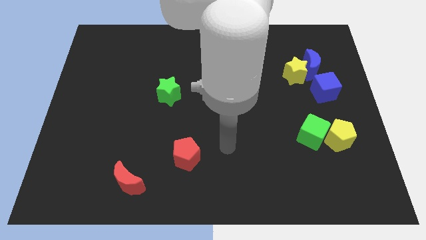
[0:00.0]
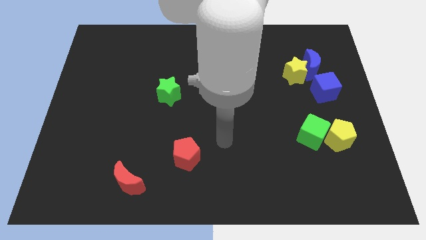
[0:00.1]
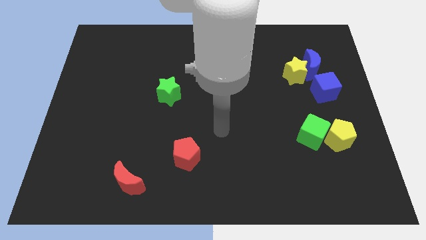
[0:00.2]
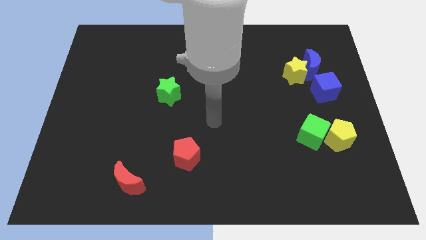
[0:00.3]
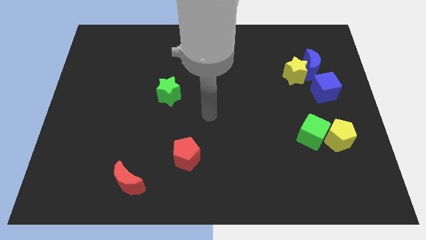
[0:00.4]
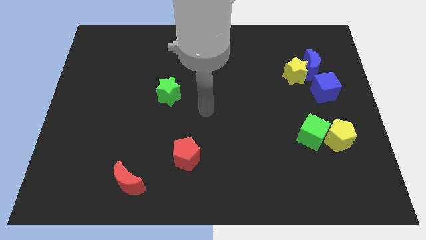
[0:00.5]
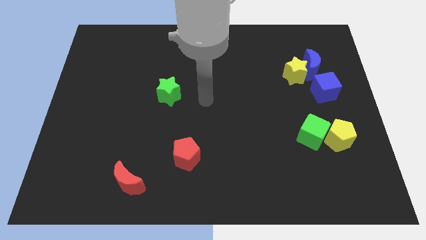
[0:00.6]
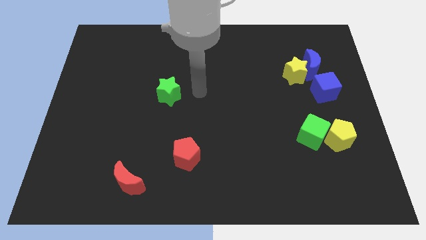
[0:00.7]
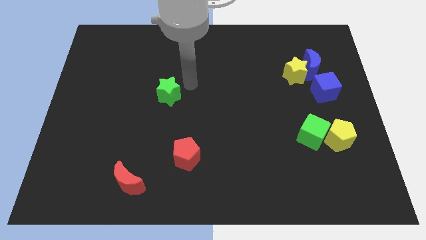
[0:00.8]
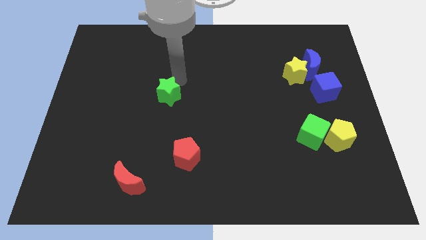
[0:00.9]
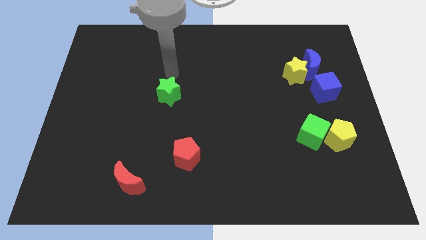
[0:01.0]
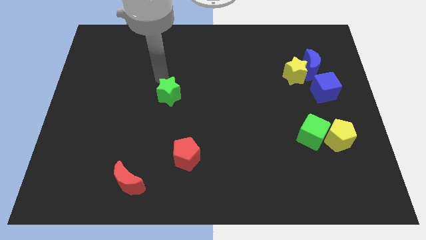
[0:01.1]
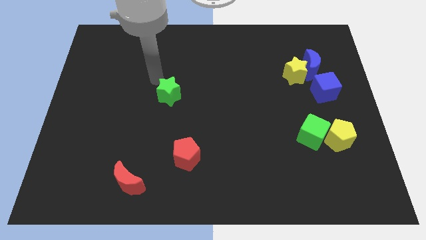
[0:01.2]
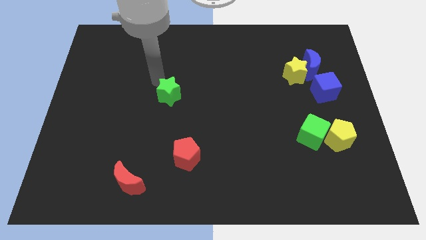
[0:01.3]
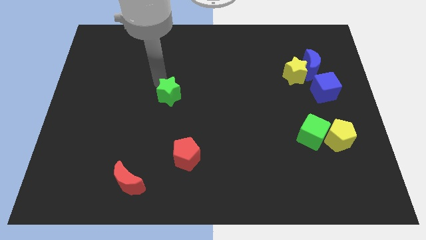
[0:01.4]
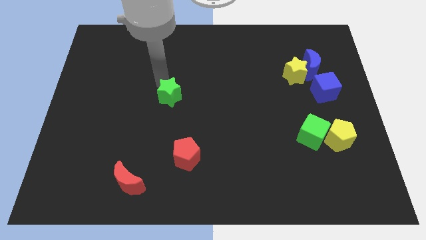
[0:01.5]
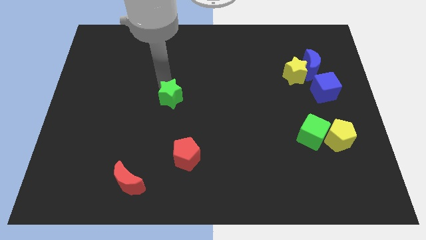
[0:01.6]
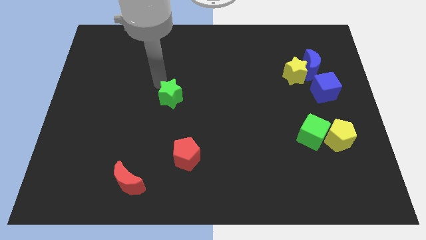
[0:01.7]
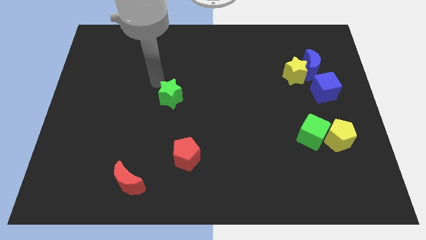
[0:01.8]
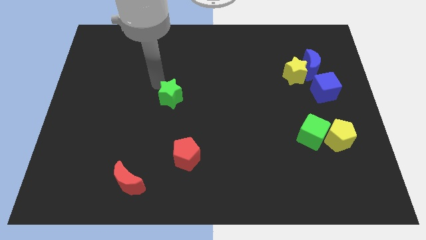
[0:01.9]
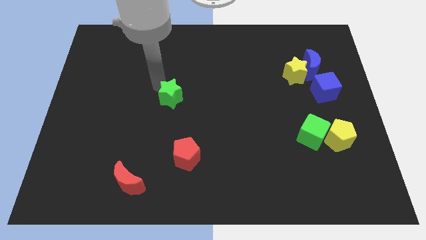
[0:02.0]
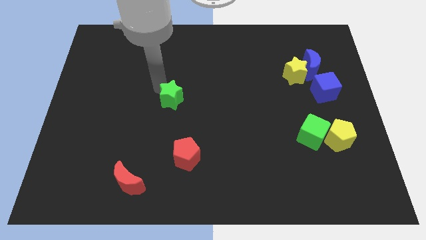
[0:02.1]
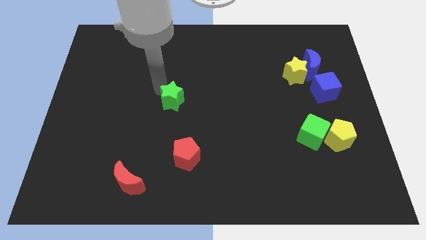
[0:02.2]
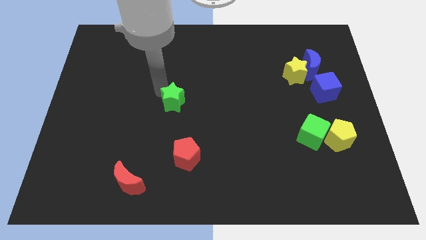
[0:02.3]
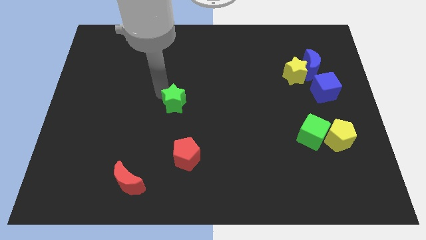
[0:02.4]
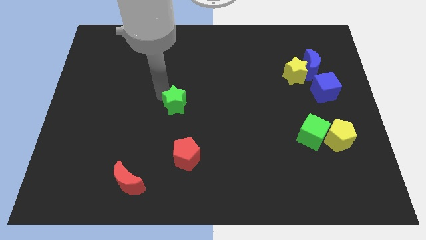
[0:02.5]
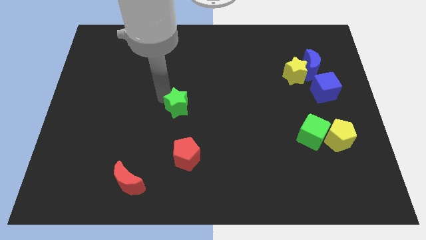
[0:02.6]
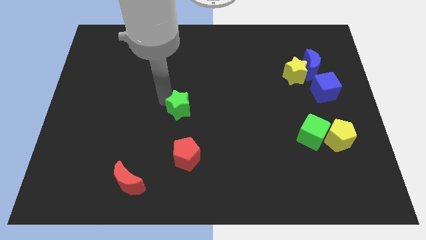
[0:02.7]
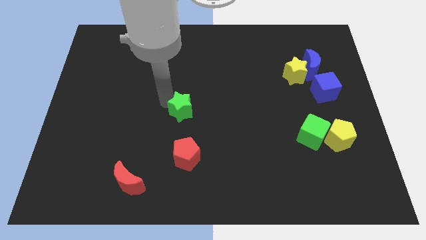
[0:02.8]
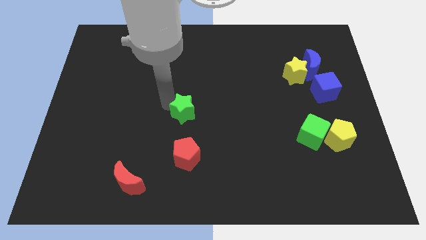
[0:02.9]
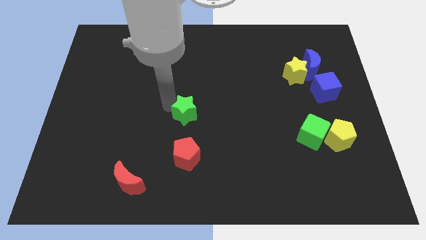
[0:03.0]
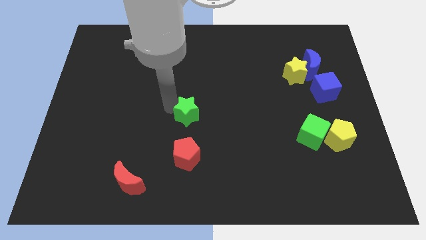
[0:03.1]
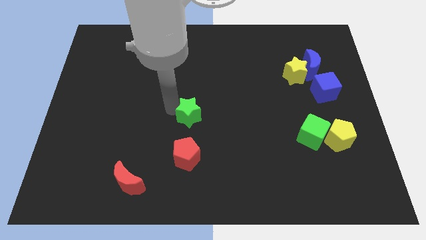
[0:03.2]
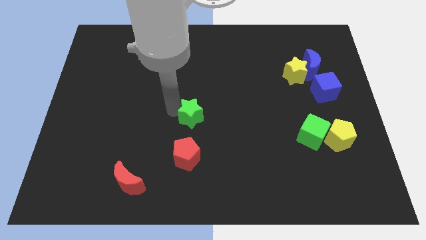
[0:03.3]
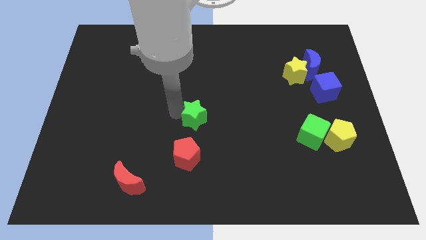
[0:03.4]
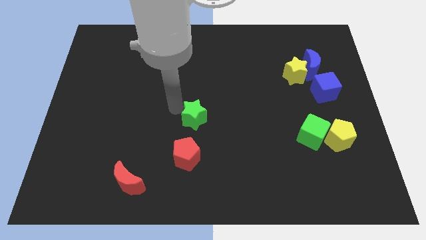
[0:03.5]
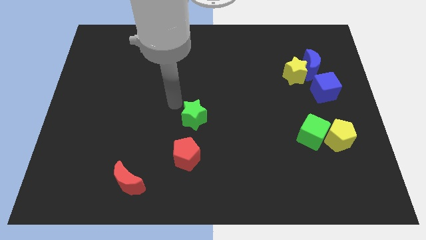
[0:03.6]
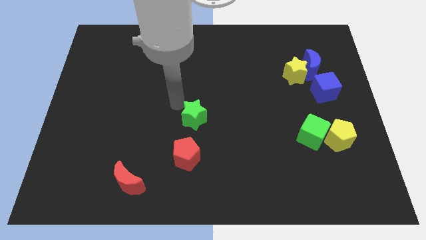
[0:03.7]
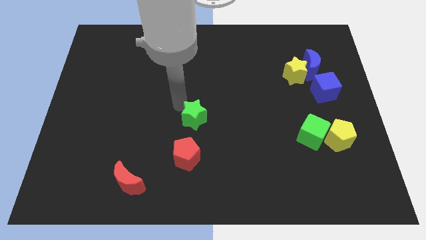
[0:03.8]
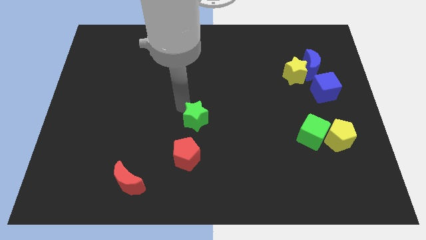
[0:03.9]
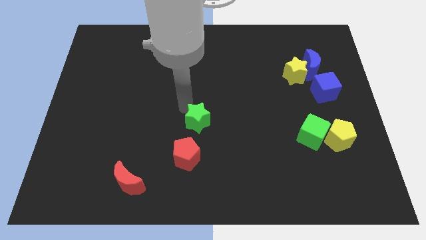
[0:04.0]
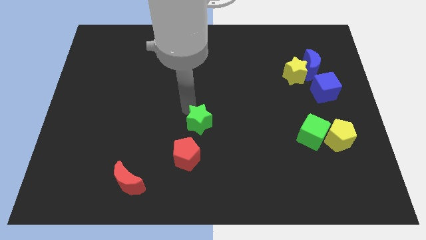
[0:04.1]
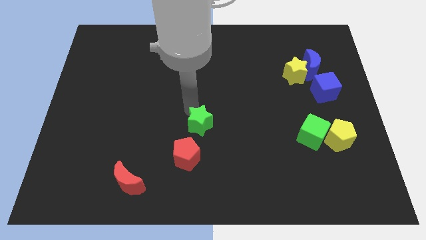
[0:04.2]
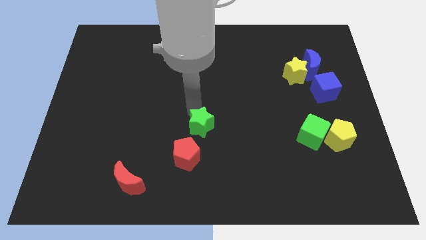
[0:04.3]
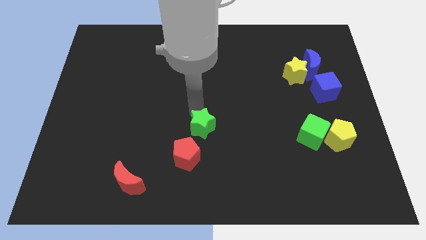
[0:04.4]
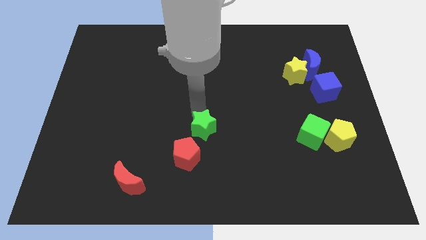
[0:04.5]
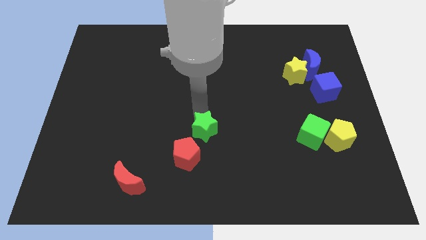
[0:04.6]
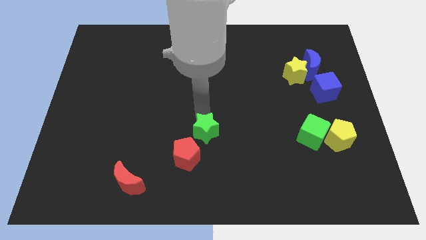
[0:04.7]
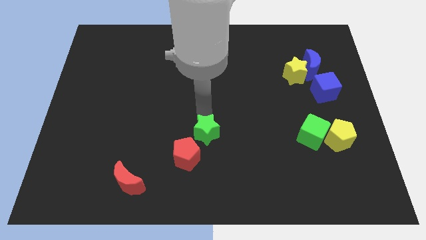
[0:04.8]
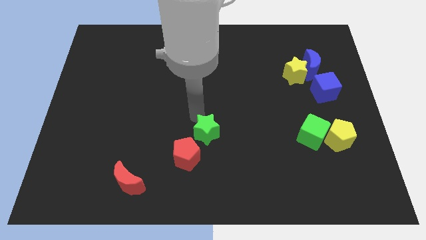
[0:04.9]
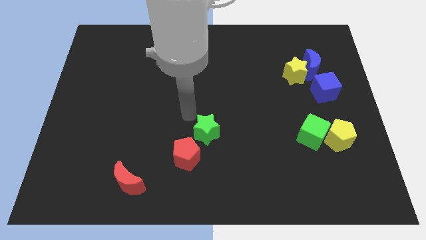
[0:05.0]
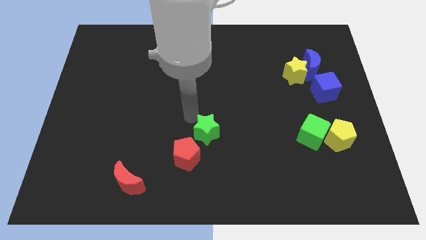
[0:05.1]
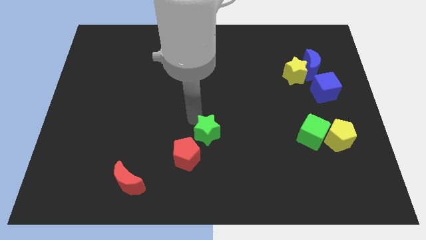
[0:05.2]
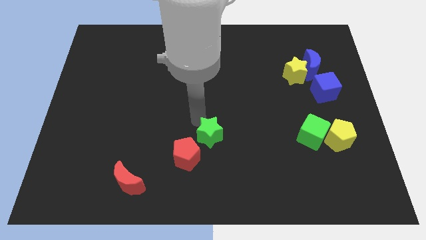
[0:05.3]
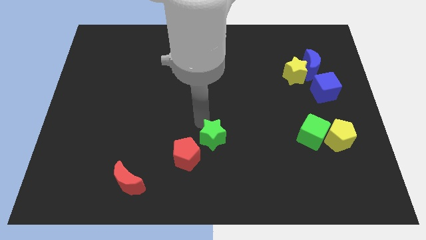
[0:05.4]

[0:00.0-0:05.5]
push the green star to the right of the red pentagon

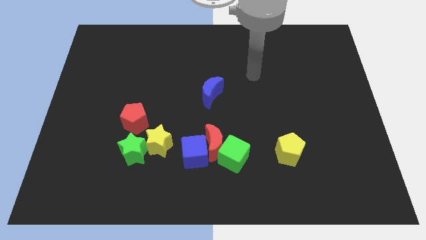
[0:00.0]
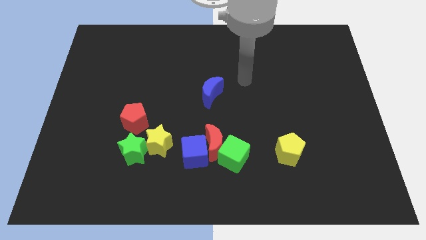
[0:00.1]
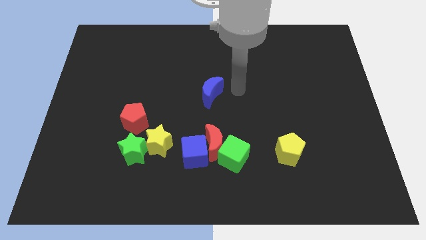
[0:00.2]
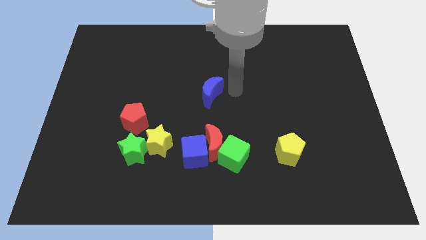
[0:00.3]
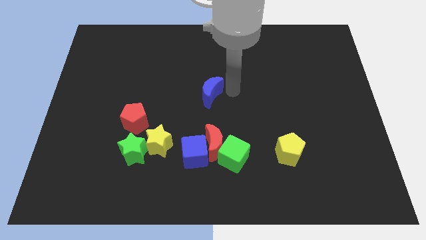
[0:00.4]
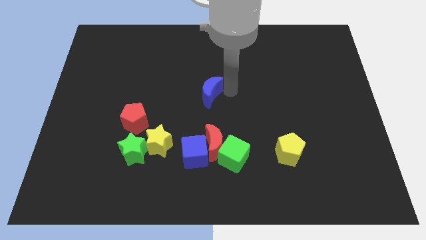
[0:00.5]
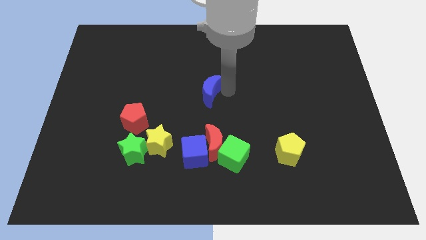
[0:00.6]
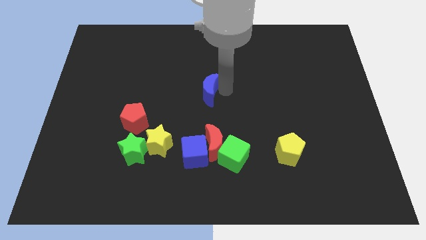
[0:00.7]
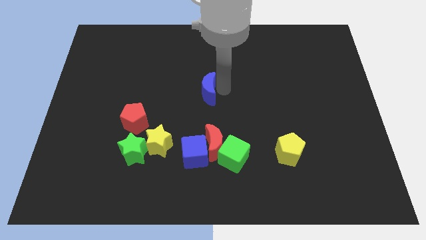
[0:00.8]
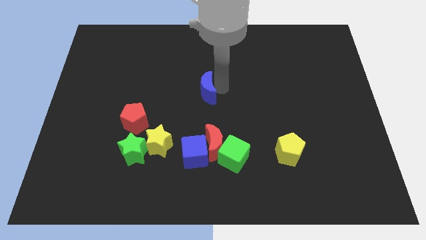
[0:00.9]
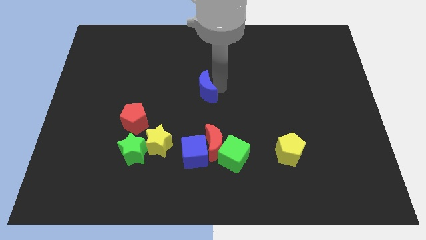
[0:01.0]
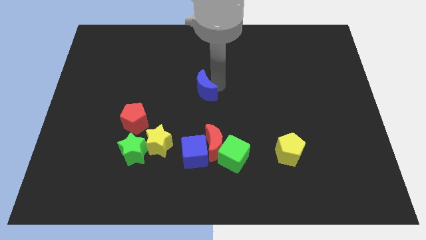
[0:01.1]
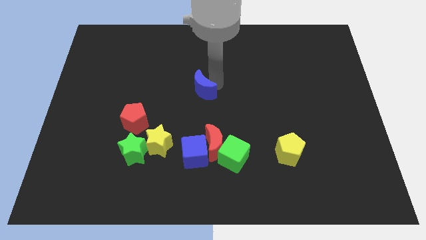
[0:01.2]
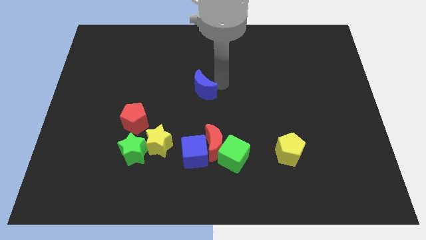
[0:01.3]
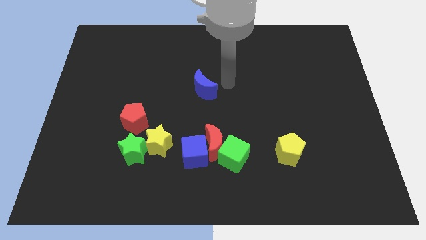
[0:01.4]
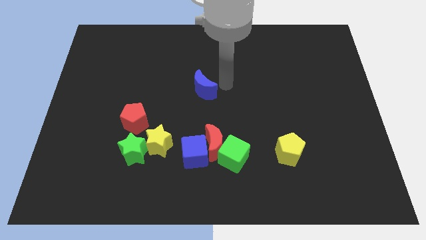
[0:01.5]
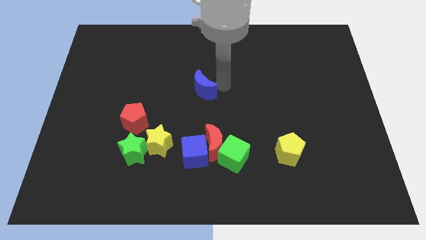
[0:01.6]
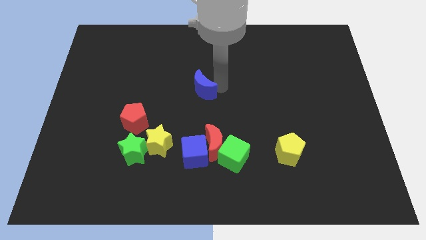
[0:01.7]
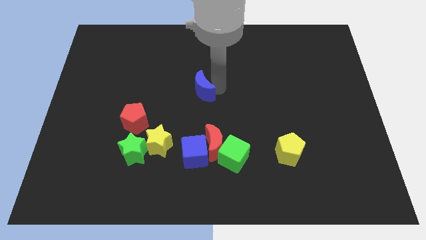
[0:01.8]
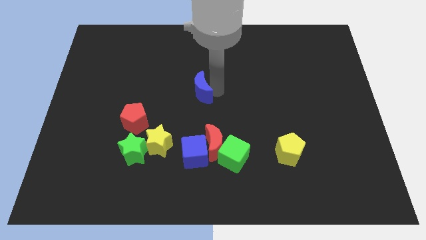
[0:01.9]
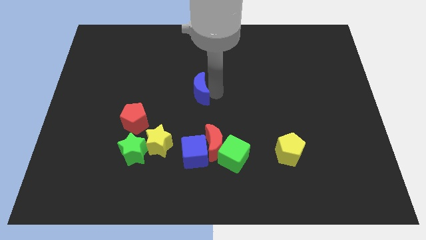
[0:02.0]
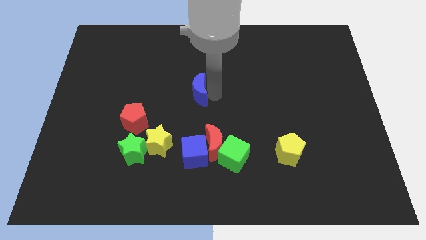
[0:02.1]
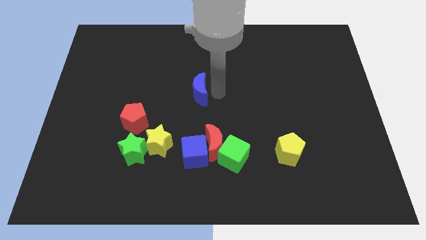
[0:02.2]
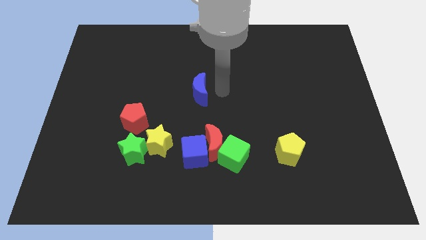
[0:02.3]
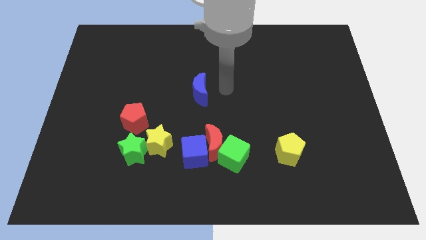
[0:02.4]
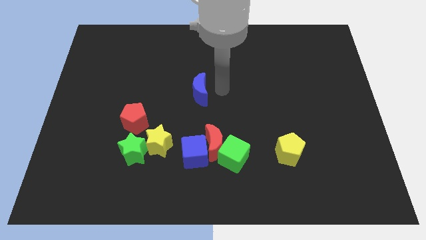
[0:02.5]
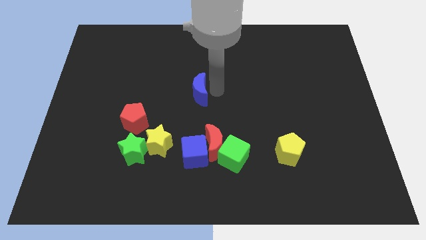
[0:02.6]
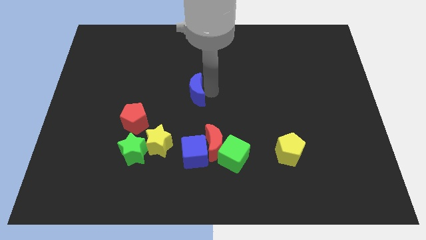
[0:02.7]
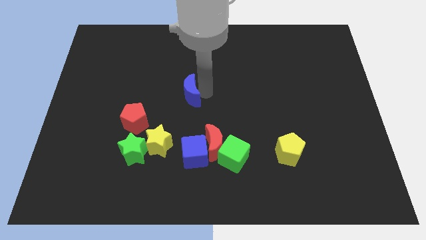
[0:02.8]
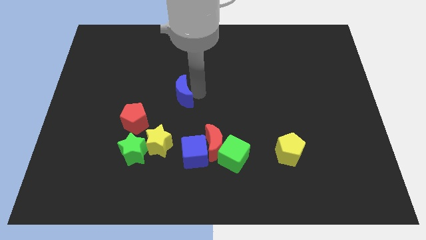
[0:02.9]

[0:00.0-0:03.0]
move the blue moon to the top right side of the red pentagon
